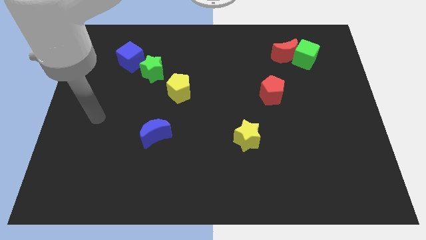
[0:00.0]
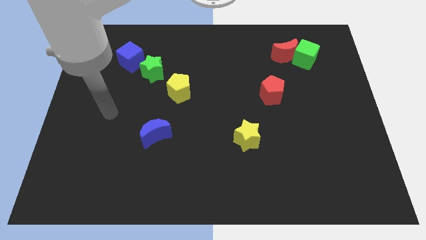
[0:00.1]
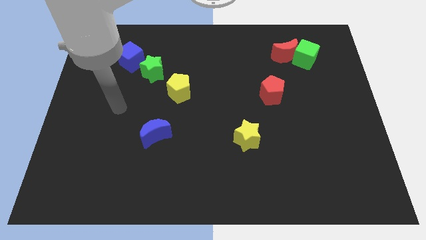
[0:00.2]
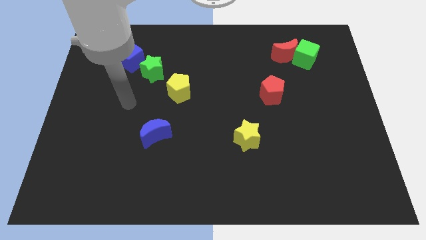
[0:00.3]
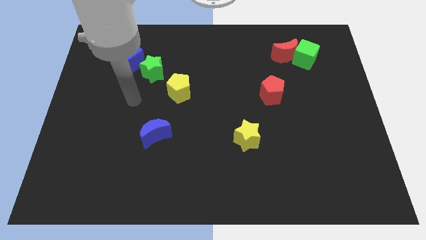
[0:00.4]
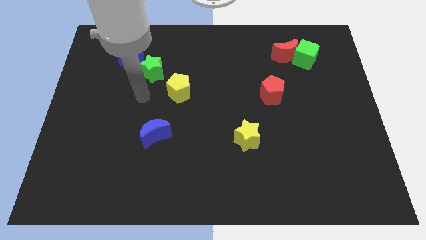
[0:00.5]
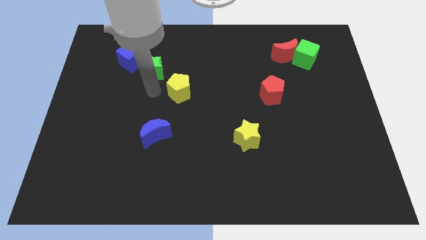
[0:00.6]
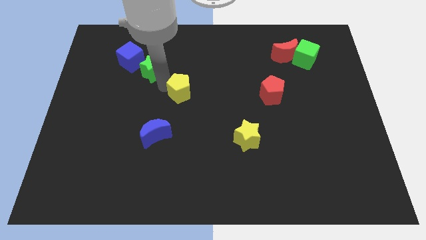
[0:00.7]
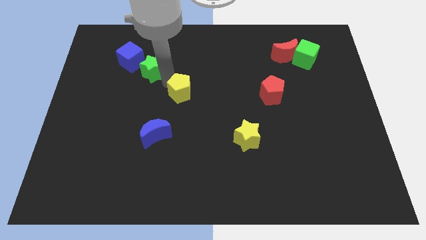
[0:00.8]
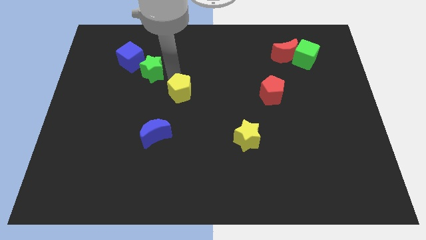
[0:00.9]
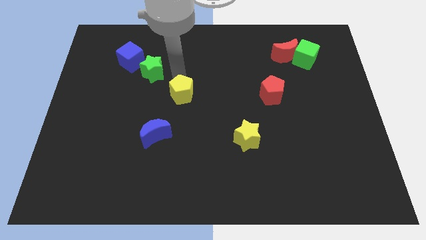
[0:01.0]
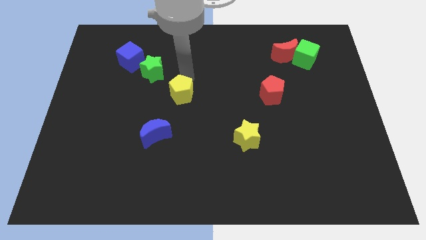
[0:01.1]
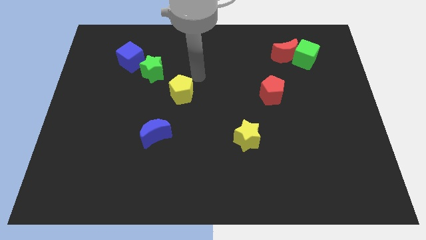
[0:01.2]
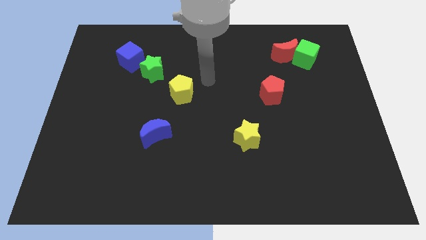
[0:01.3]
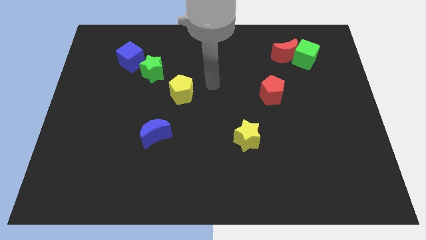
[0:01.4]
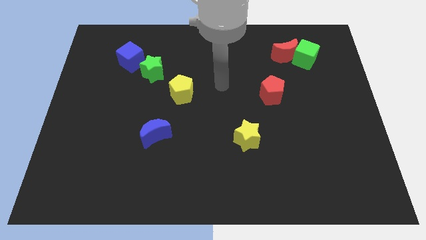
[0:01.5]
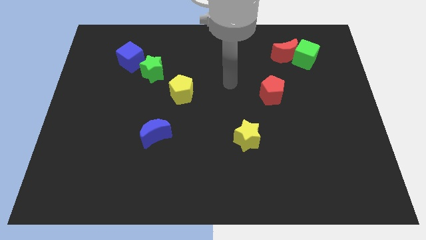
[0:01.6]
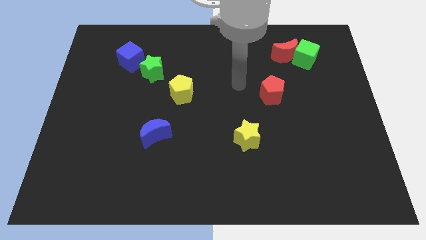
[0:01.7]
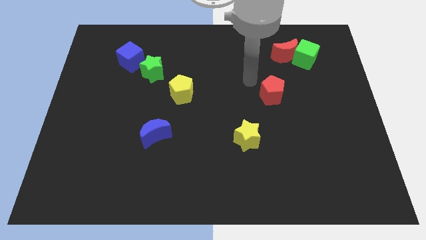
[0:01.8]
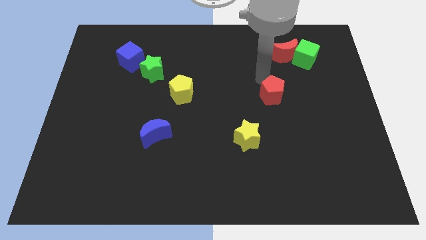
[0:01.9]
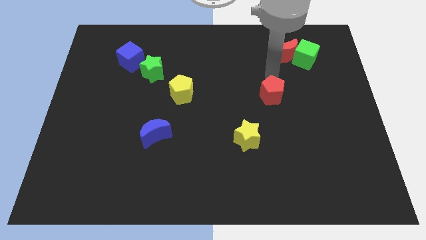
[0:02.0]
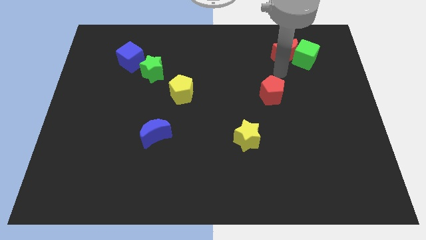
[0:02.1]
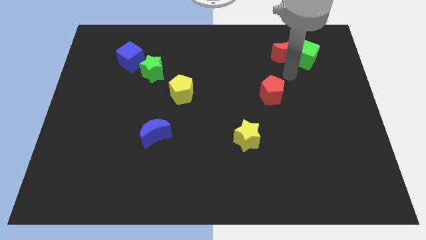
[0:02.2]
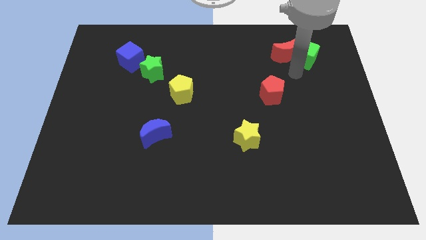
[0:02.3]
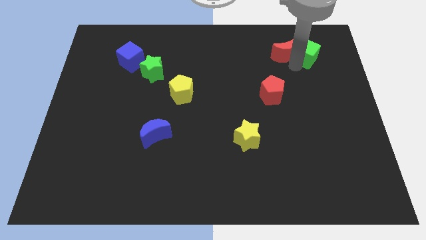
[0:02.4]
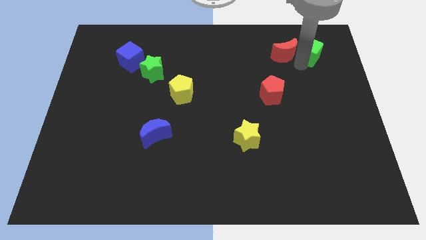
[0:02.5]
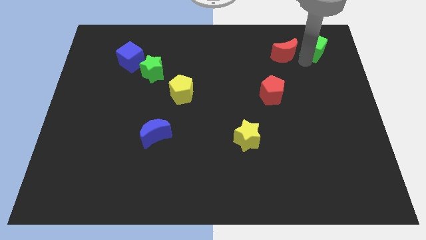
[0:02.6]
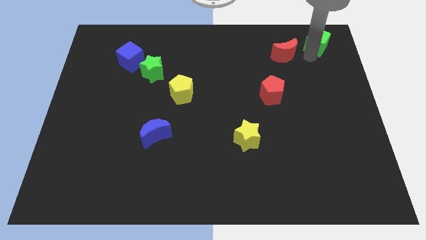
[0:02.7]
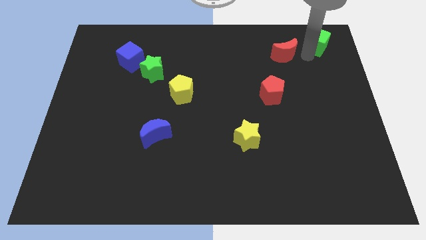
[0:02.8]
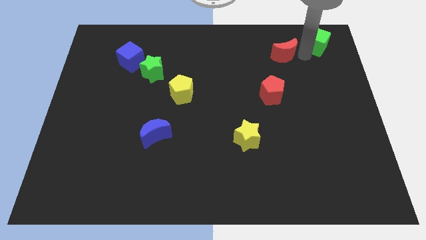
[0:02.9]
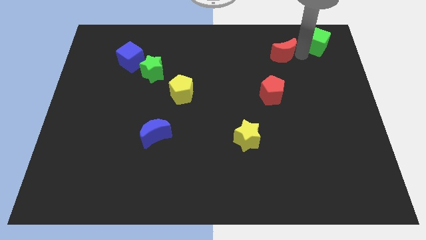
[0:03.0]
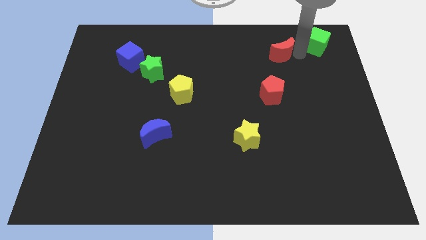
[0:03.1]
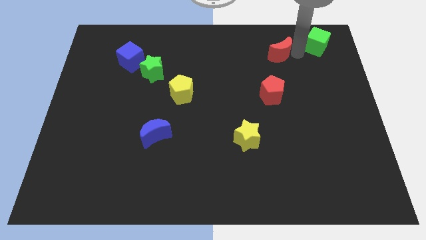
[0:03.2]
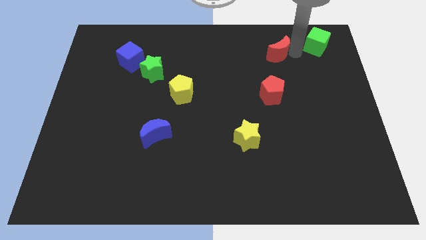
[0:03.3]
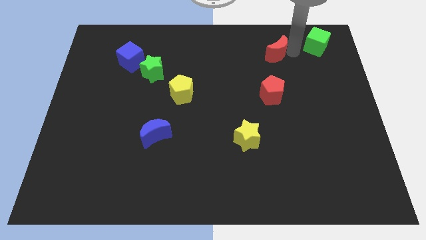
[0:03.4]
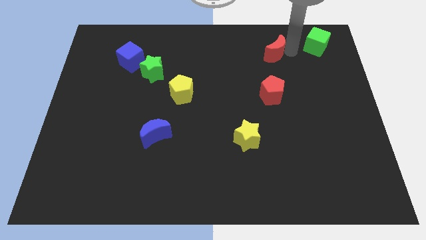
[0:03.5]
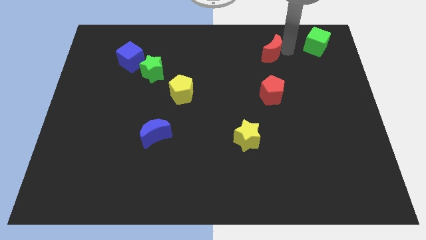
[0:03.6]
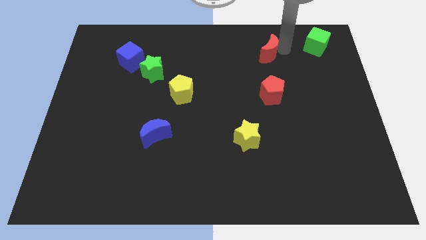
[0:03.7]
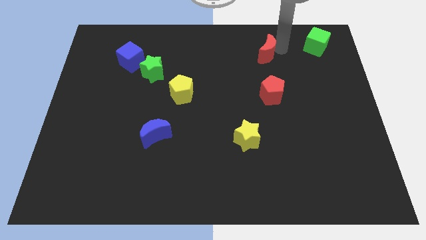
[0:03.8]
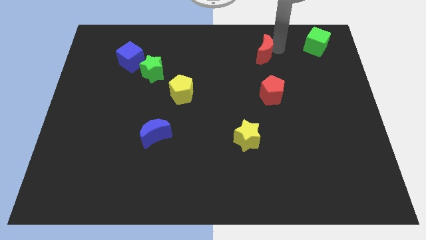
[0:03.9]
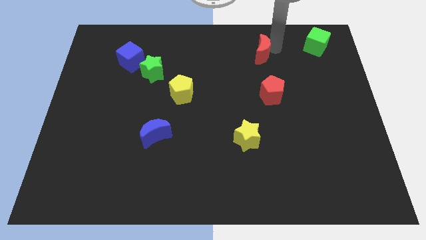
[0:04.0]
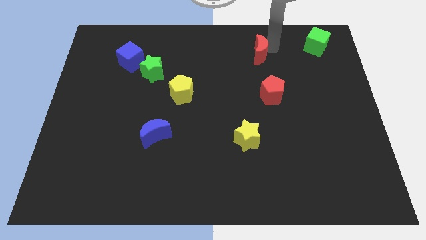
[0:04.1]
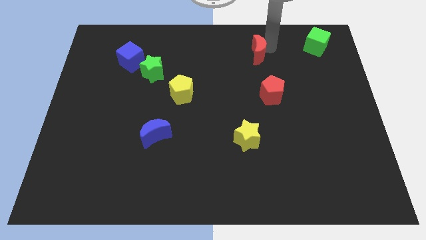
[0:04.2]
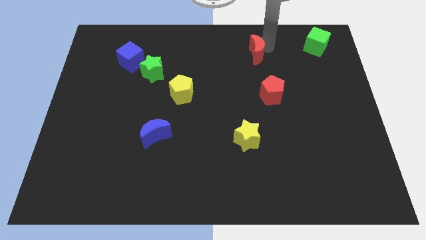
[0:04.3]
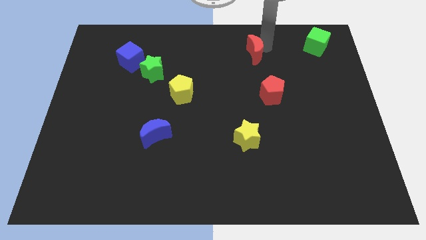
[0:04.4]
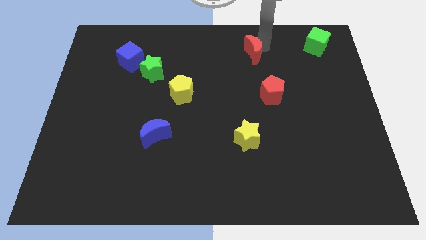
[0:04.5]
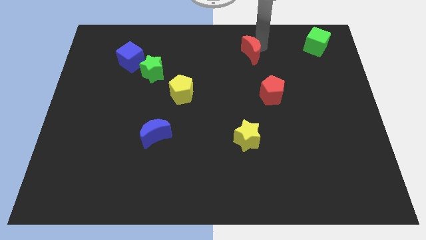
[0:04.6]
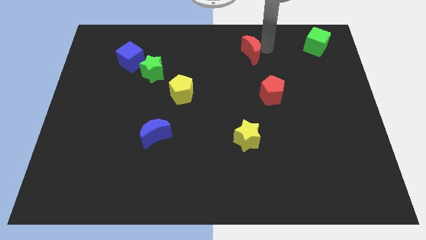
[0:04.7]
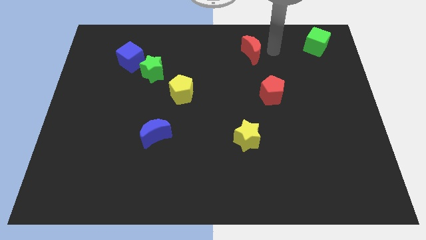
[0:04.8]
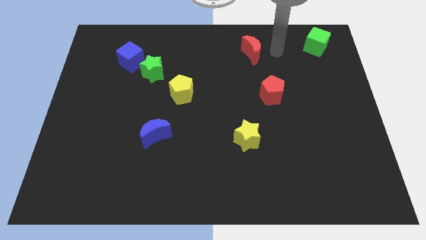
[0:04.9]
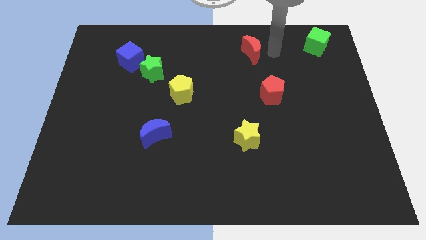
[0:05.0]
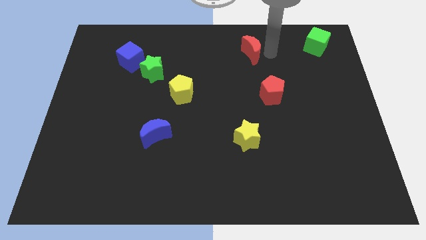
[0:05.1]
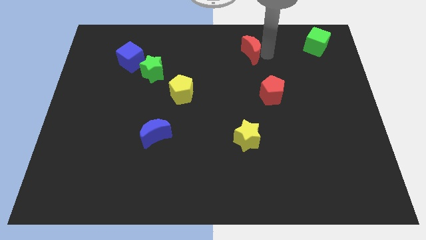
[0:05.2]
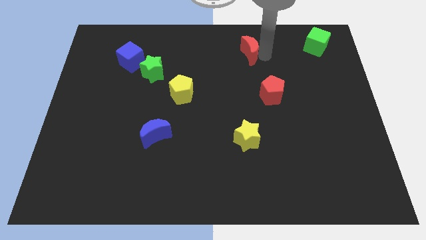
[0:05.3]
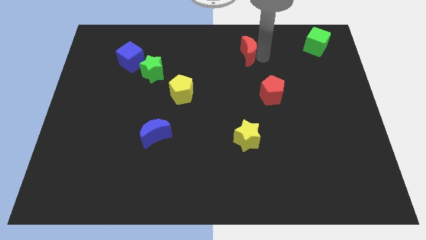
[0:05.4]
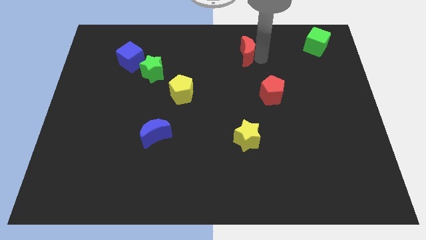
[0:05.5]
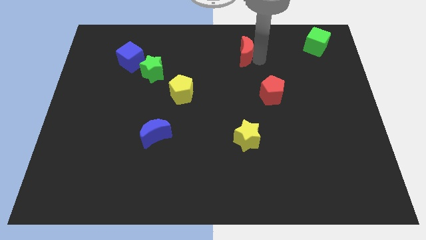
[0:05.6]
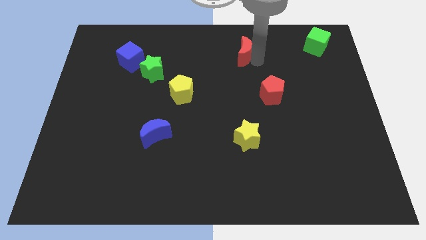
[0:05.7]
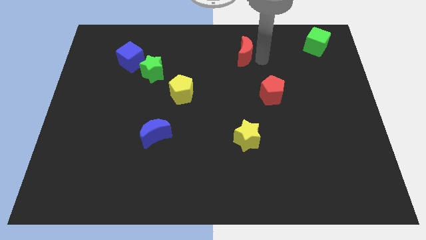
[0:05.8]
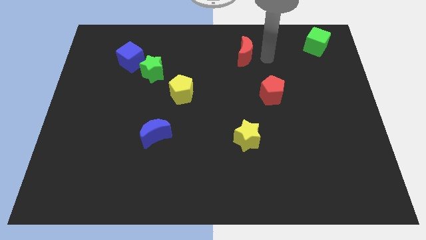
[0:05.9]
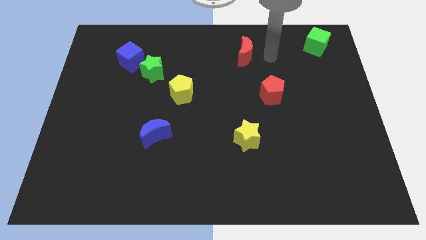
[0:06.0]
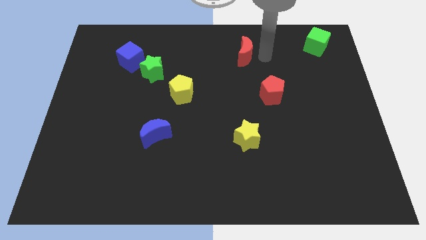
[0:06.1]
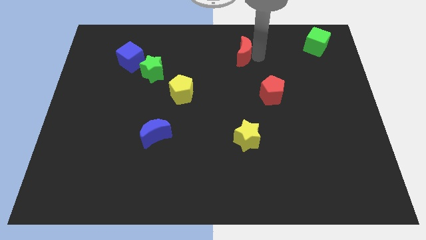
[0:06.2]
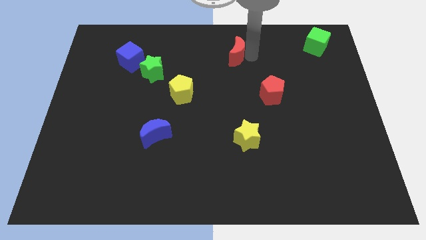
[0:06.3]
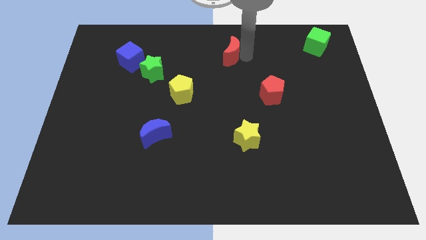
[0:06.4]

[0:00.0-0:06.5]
put the red moon to the top side
